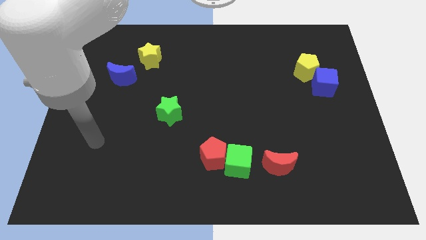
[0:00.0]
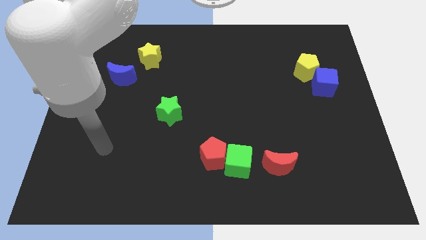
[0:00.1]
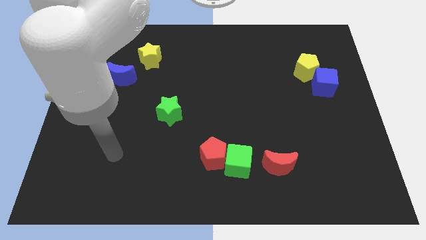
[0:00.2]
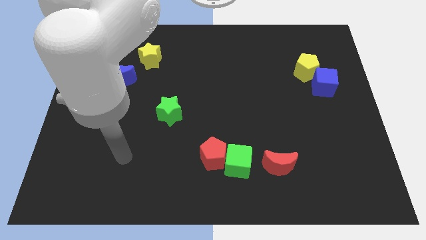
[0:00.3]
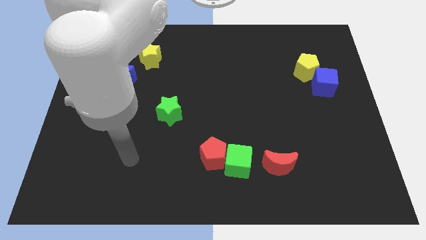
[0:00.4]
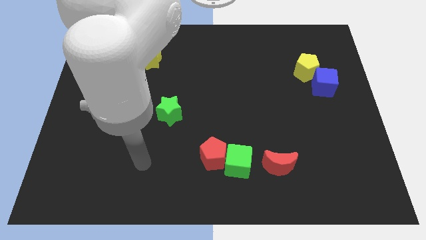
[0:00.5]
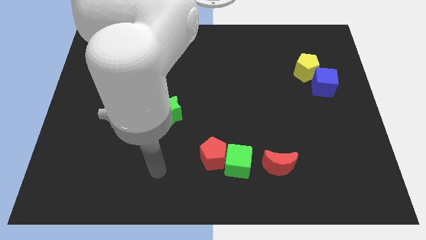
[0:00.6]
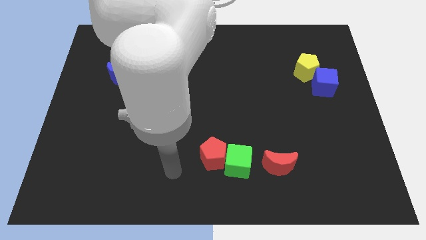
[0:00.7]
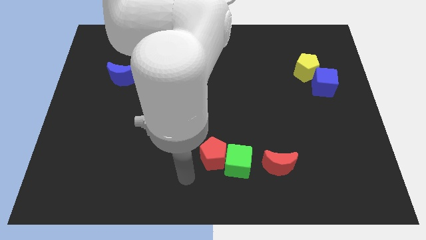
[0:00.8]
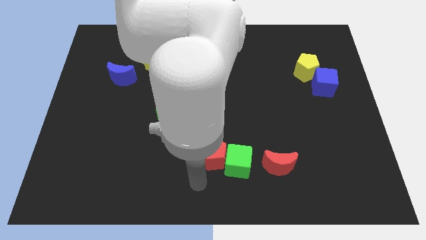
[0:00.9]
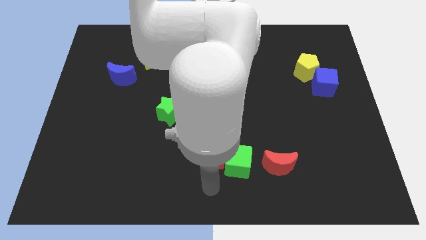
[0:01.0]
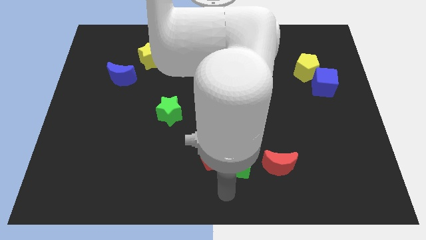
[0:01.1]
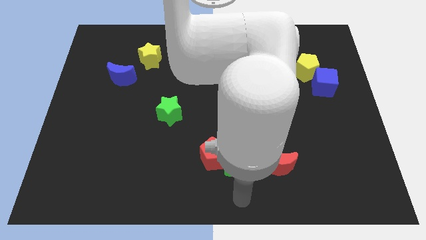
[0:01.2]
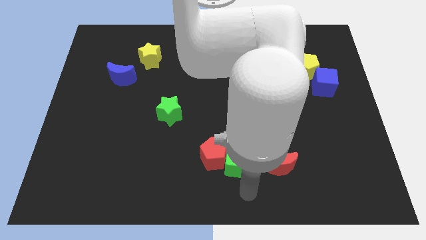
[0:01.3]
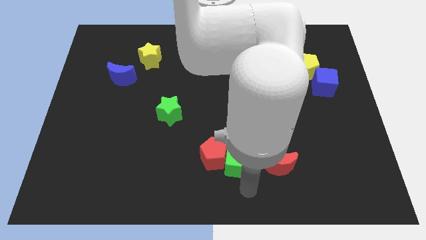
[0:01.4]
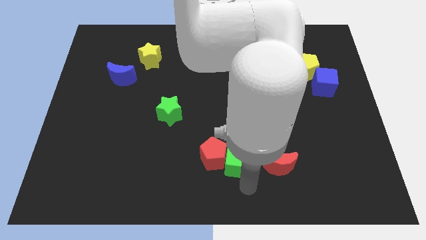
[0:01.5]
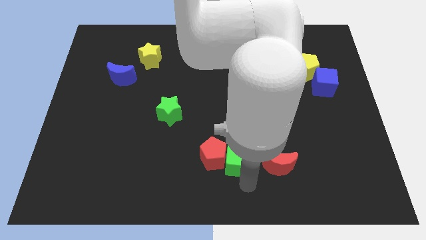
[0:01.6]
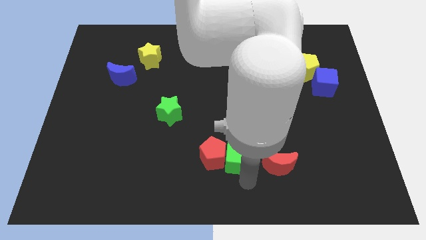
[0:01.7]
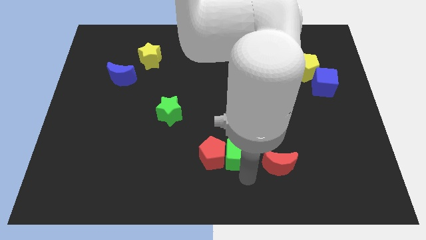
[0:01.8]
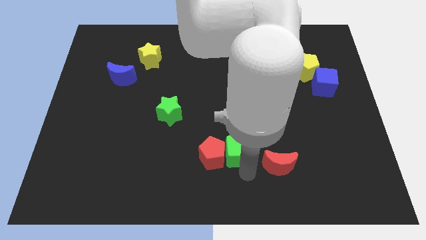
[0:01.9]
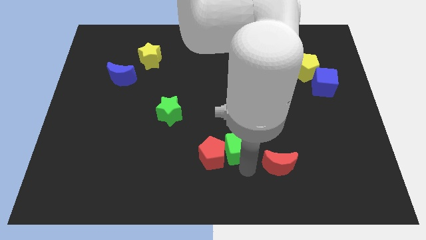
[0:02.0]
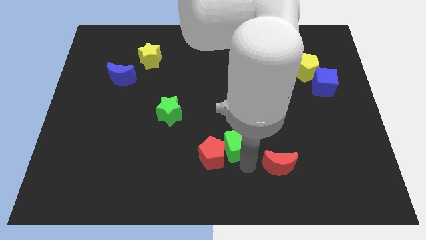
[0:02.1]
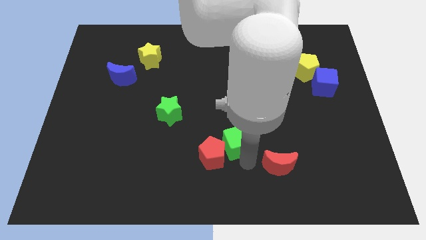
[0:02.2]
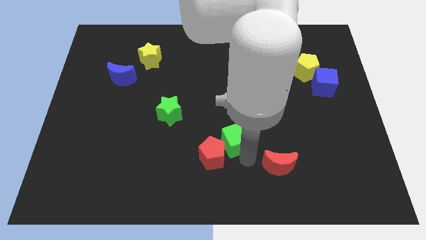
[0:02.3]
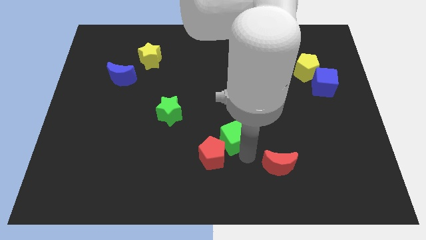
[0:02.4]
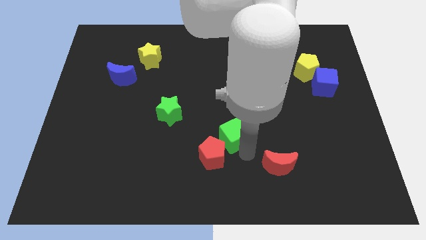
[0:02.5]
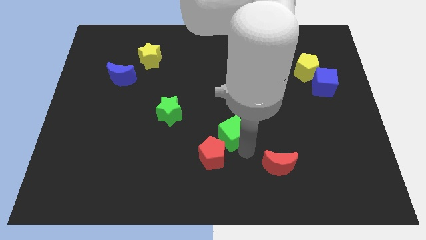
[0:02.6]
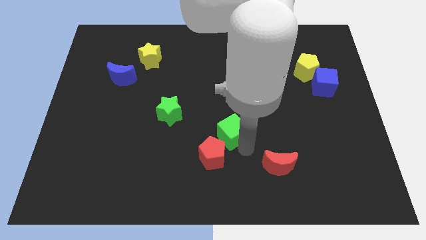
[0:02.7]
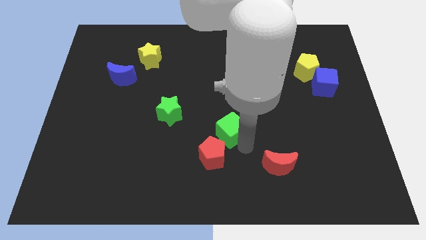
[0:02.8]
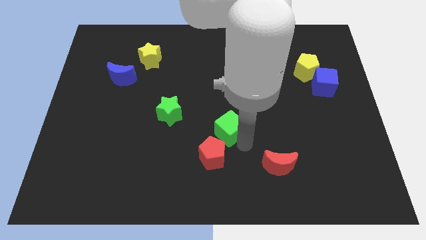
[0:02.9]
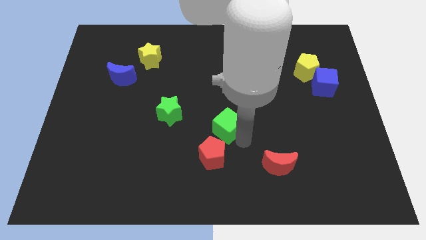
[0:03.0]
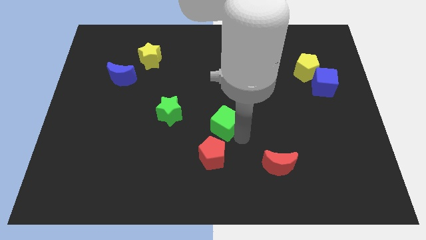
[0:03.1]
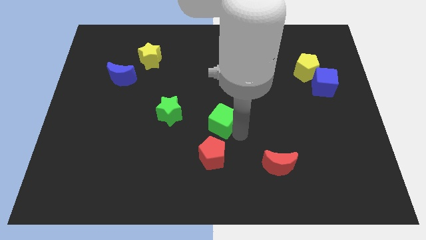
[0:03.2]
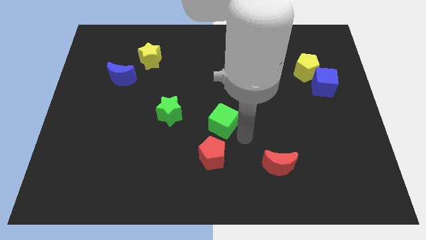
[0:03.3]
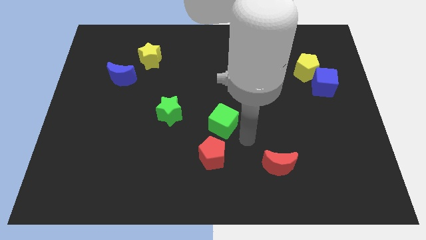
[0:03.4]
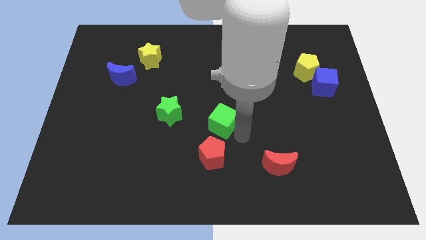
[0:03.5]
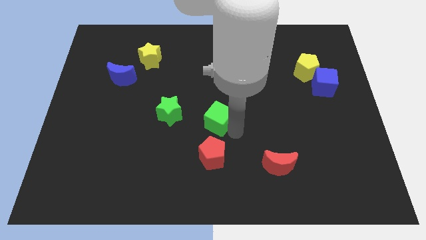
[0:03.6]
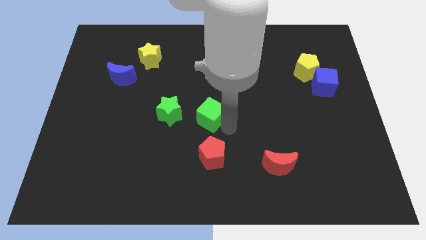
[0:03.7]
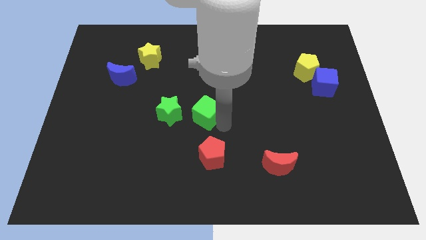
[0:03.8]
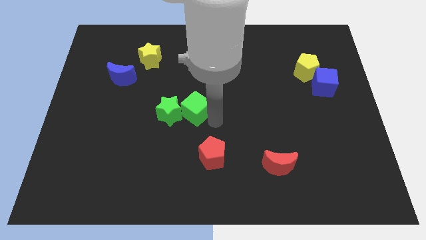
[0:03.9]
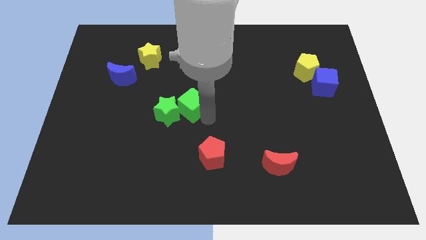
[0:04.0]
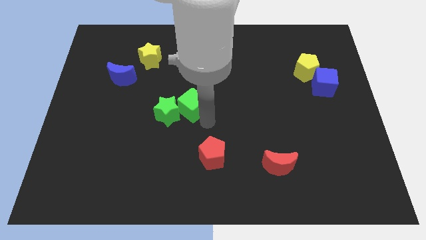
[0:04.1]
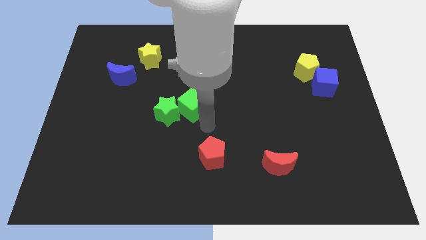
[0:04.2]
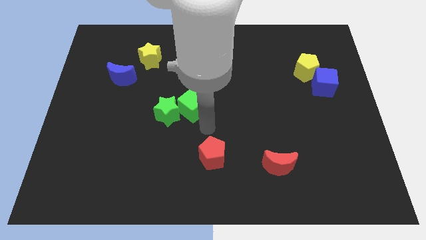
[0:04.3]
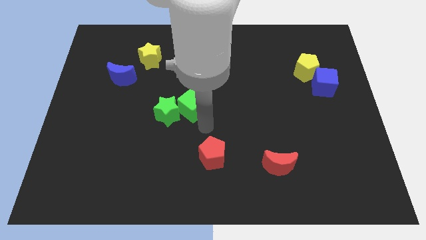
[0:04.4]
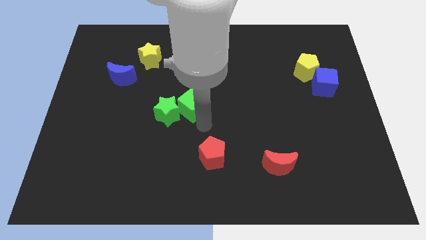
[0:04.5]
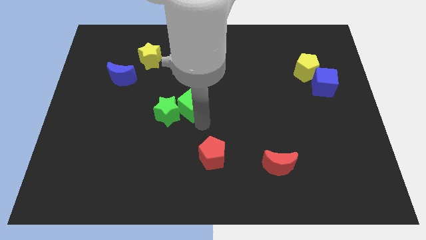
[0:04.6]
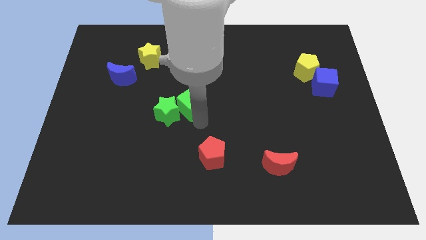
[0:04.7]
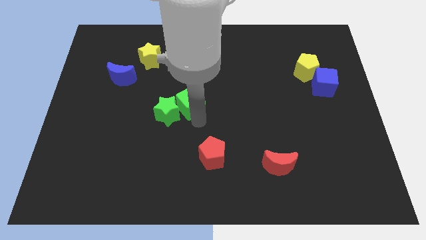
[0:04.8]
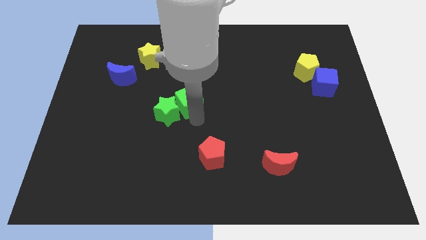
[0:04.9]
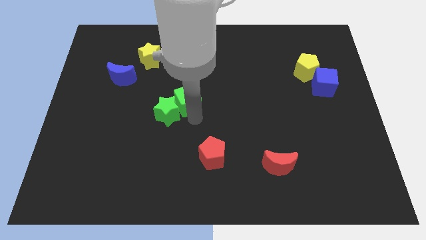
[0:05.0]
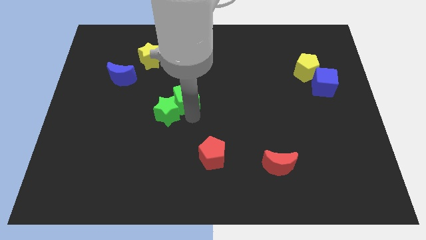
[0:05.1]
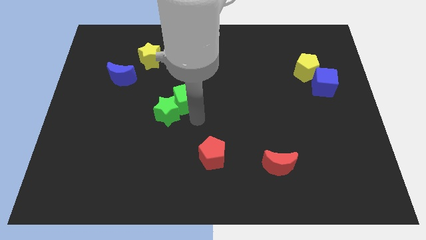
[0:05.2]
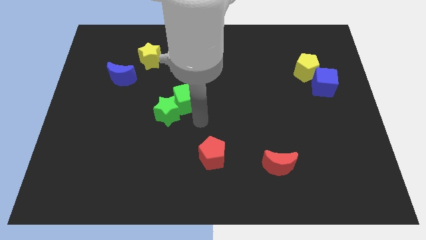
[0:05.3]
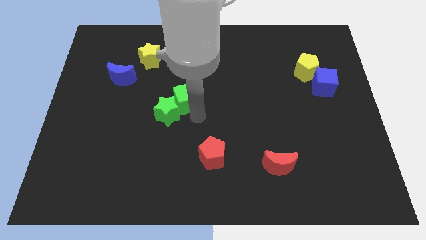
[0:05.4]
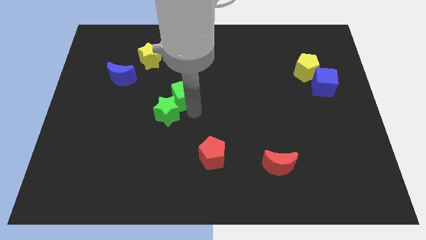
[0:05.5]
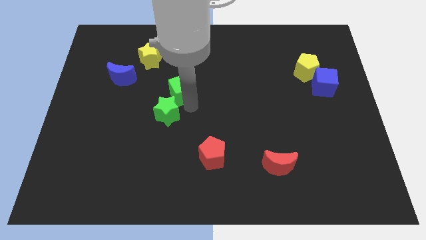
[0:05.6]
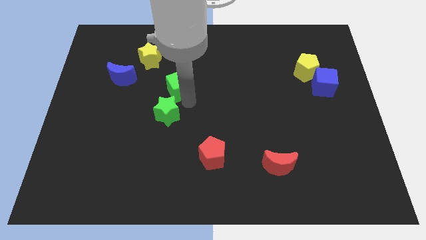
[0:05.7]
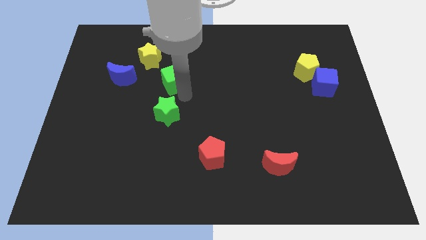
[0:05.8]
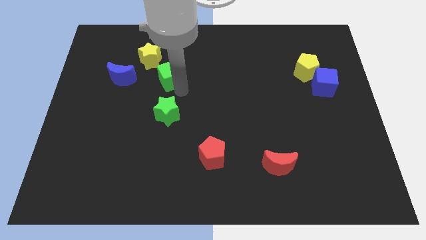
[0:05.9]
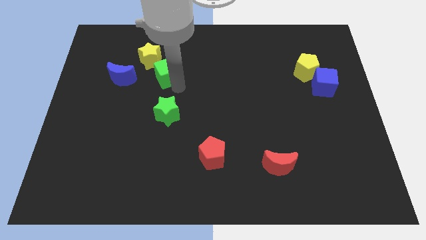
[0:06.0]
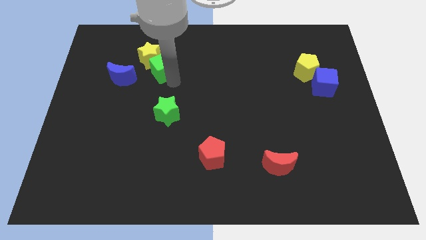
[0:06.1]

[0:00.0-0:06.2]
slide the green cube to the yellow star

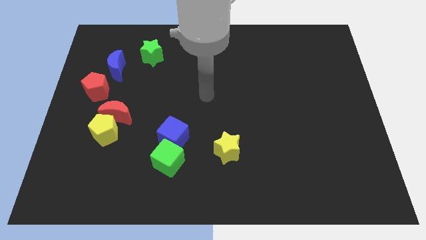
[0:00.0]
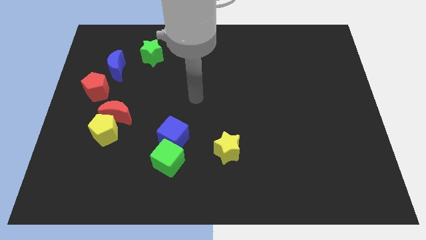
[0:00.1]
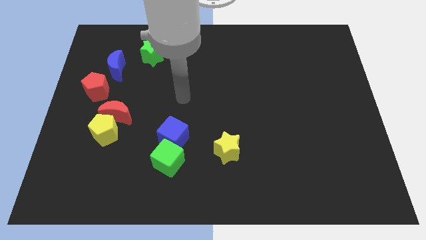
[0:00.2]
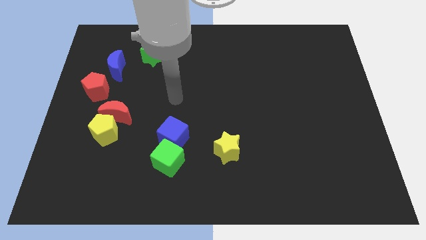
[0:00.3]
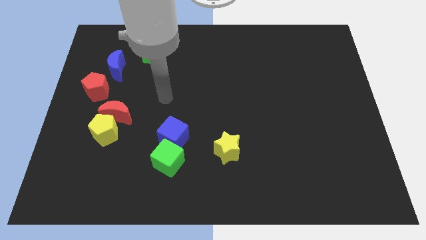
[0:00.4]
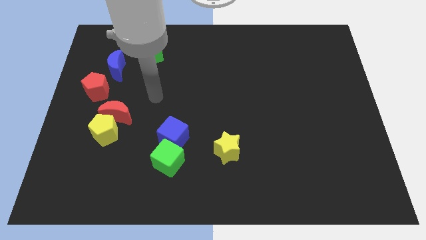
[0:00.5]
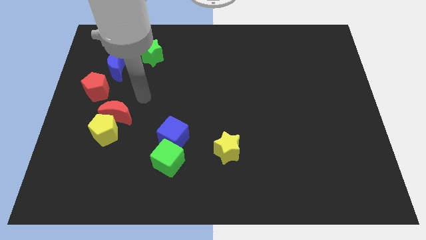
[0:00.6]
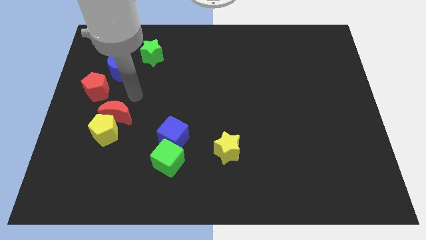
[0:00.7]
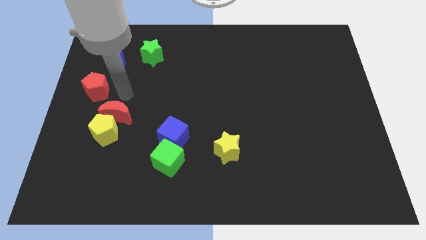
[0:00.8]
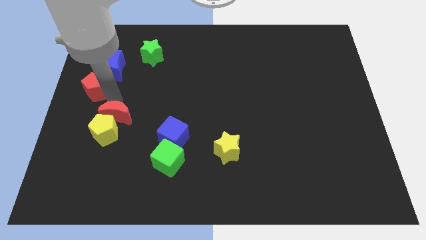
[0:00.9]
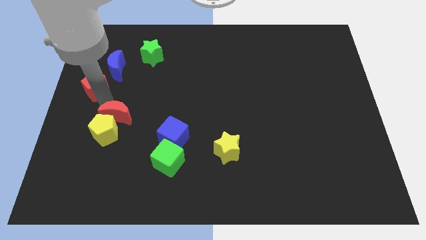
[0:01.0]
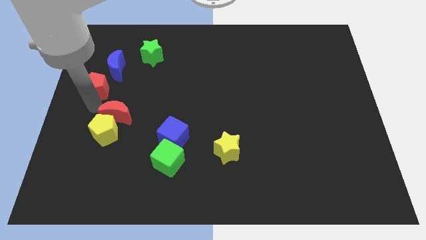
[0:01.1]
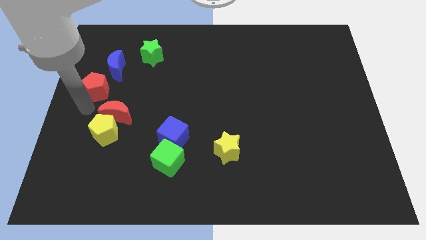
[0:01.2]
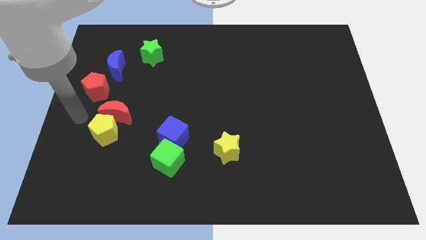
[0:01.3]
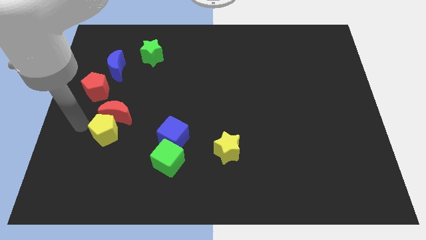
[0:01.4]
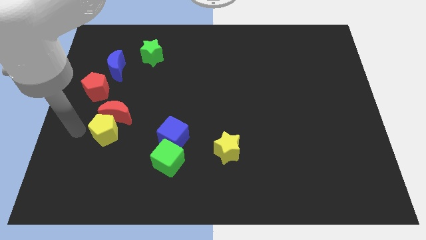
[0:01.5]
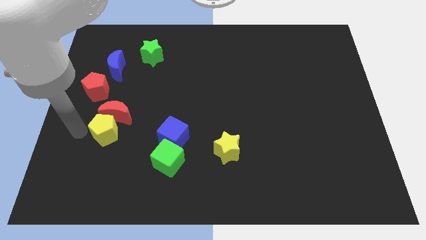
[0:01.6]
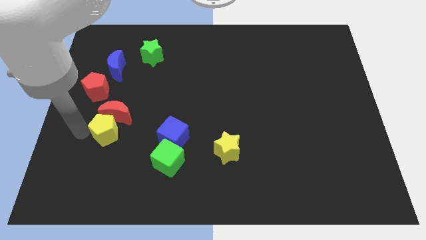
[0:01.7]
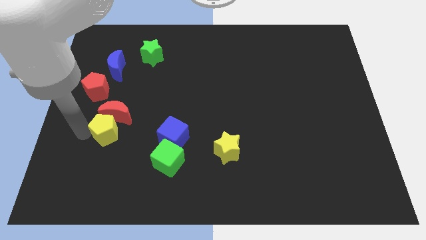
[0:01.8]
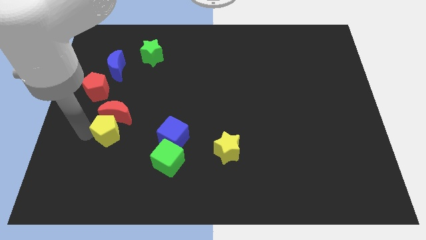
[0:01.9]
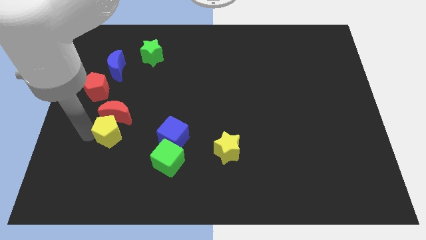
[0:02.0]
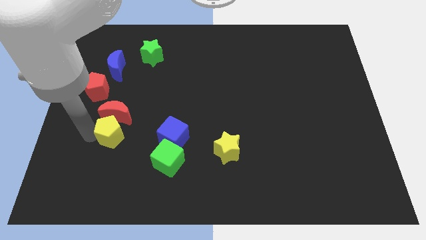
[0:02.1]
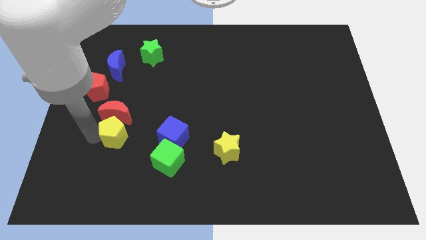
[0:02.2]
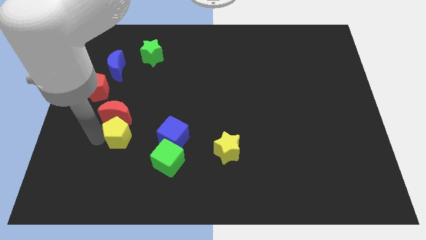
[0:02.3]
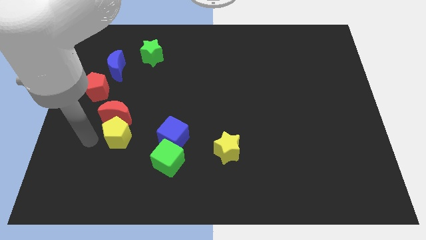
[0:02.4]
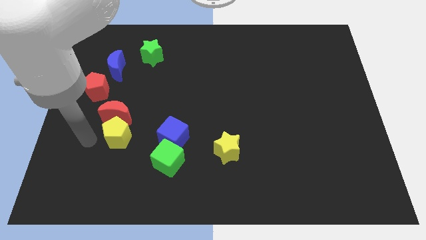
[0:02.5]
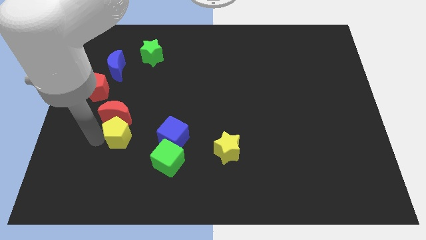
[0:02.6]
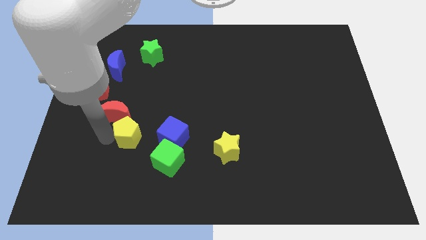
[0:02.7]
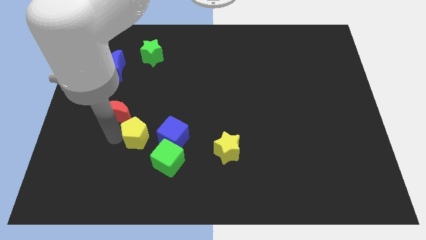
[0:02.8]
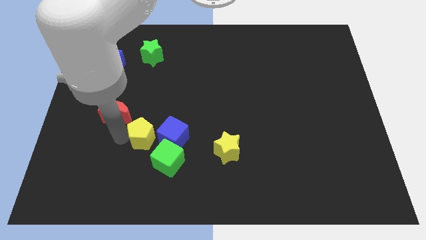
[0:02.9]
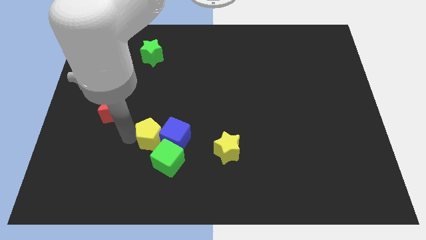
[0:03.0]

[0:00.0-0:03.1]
slide the yellow pentagon close to the blue cube
